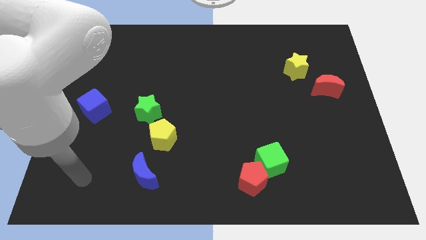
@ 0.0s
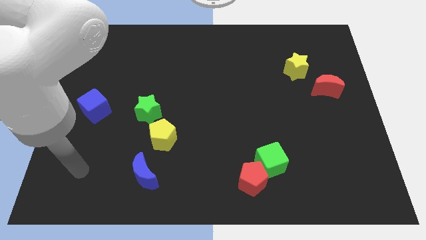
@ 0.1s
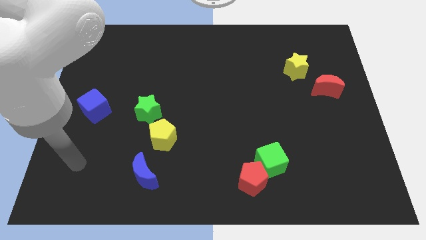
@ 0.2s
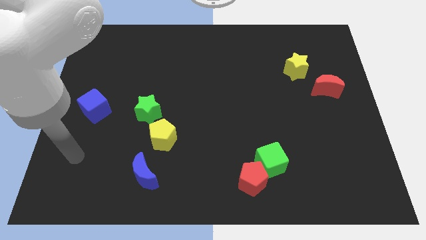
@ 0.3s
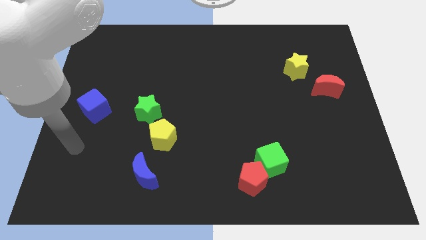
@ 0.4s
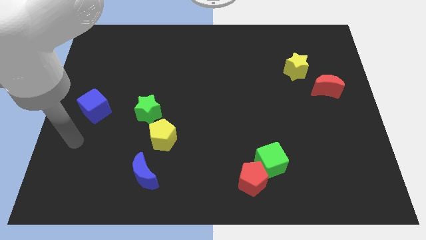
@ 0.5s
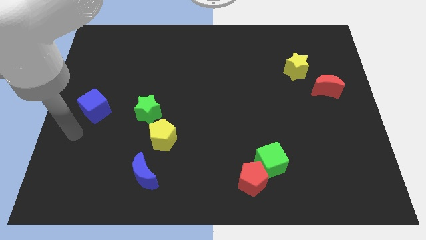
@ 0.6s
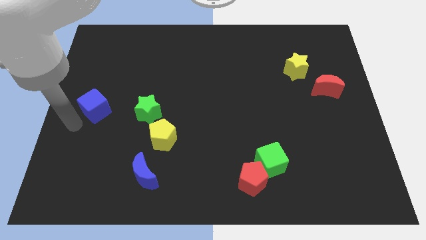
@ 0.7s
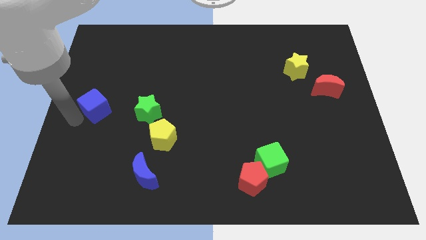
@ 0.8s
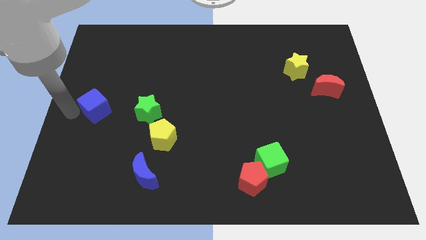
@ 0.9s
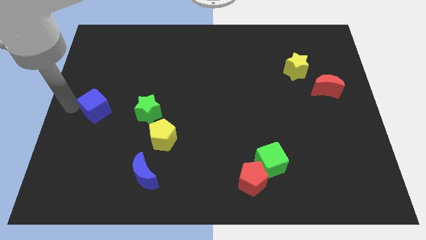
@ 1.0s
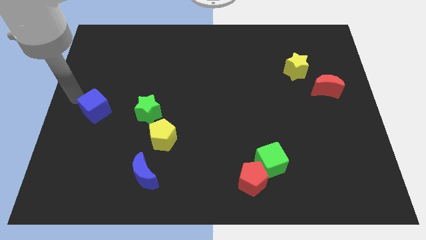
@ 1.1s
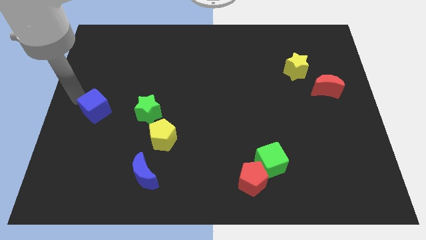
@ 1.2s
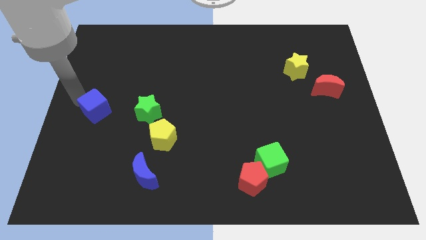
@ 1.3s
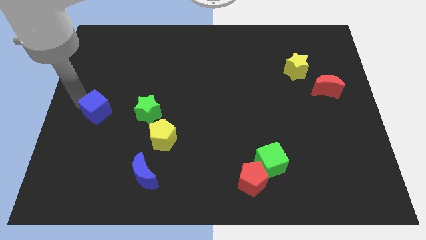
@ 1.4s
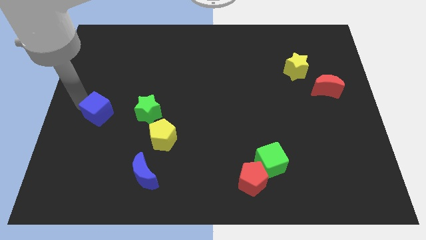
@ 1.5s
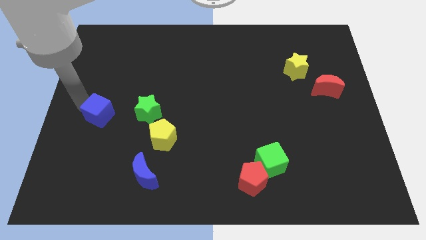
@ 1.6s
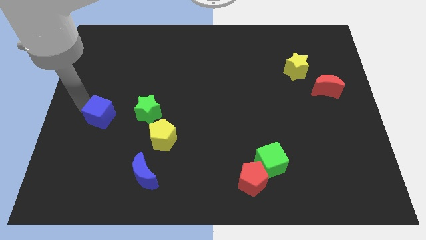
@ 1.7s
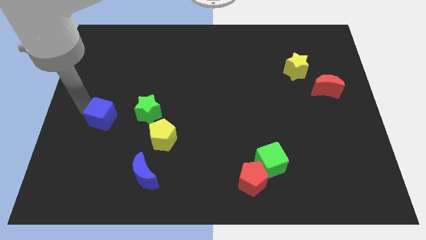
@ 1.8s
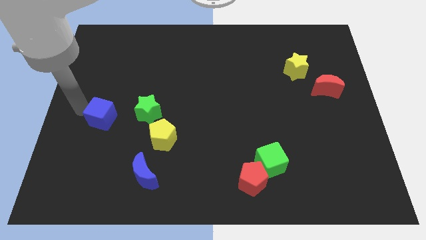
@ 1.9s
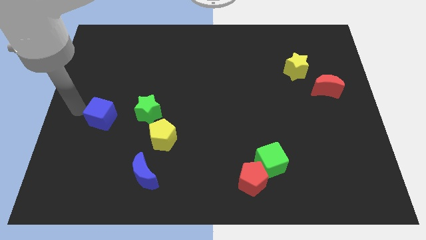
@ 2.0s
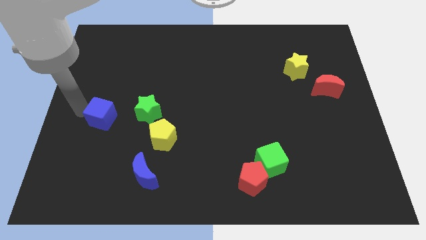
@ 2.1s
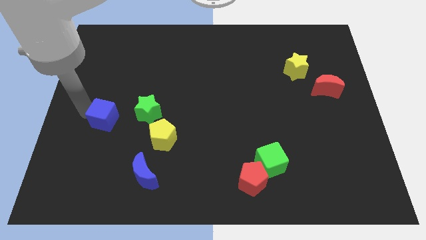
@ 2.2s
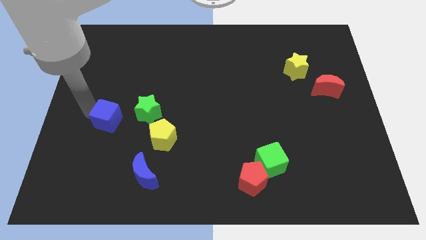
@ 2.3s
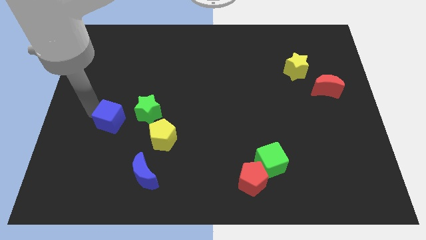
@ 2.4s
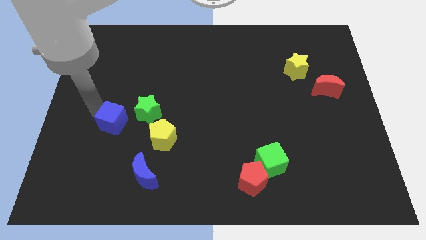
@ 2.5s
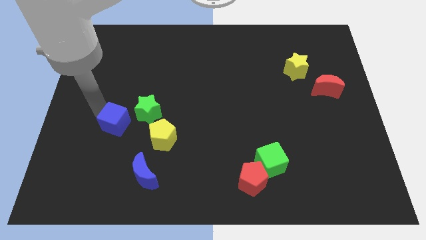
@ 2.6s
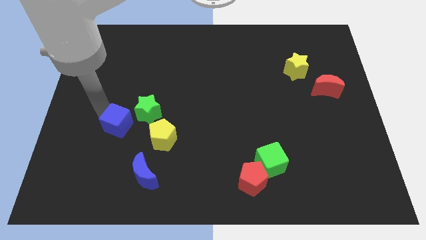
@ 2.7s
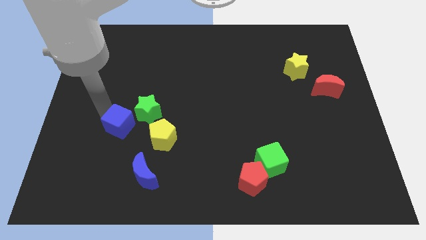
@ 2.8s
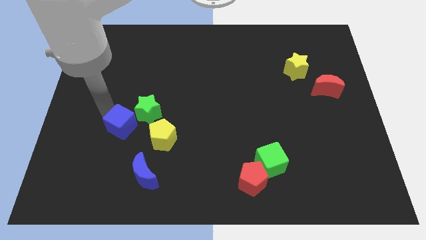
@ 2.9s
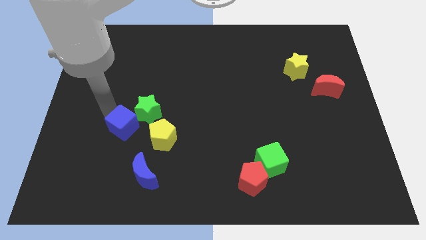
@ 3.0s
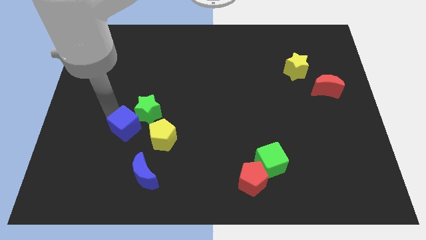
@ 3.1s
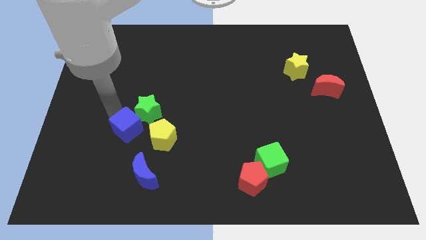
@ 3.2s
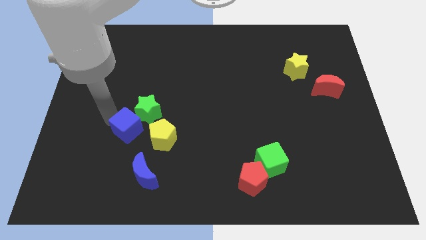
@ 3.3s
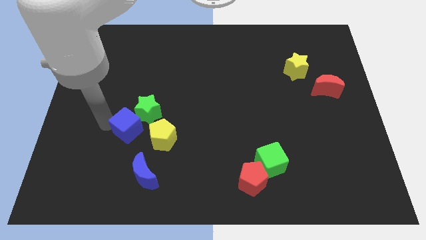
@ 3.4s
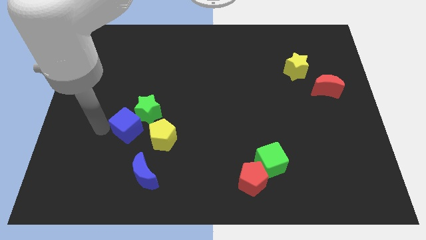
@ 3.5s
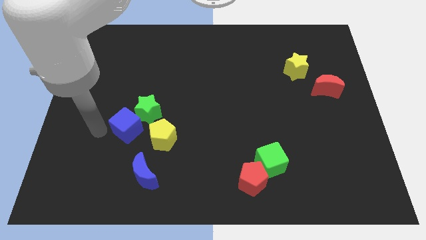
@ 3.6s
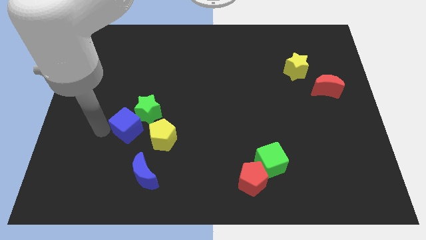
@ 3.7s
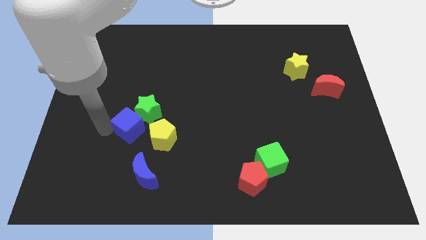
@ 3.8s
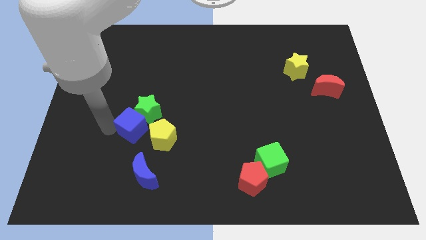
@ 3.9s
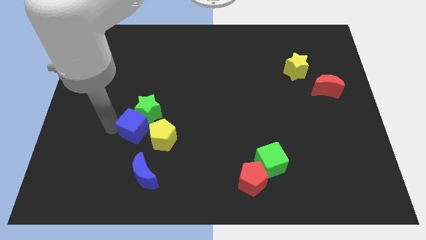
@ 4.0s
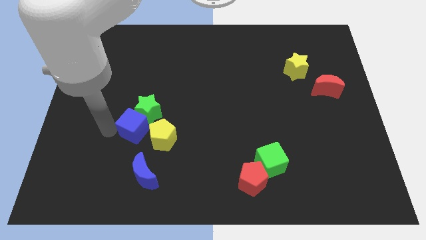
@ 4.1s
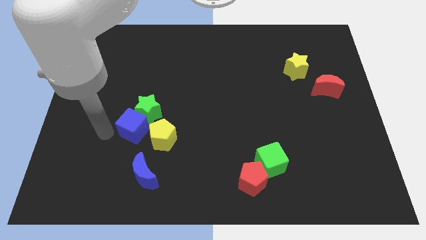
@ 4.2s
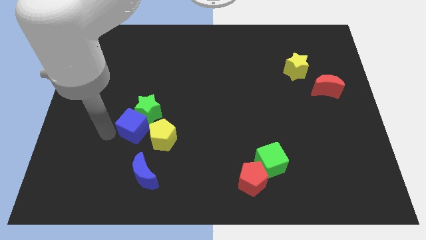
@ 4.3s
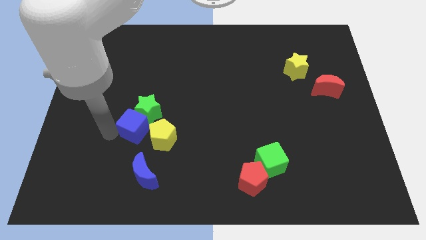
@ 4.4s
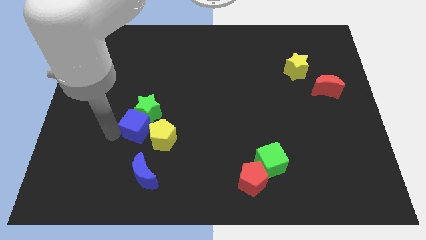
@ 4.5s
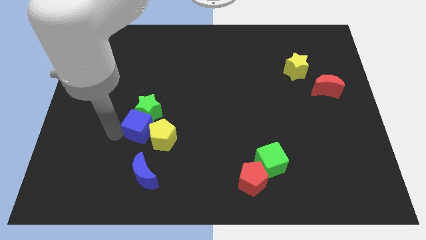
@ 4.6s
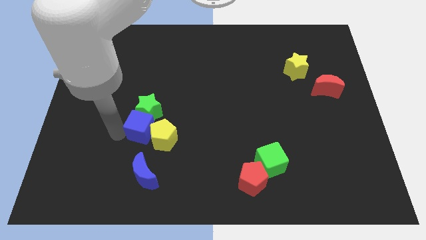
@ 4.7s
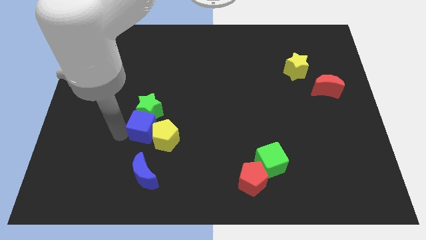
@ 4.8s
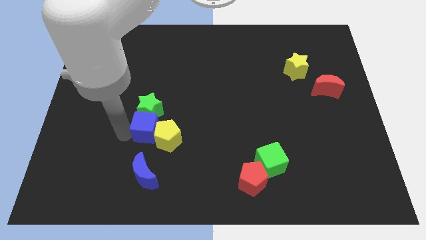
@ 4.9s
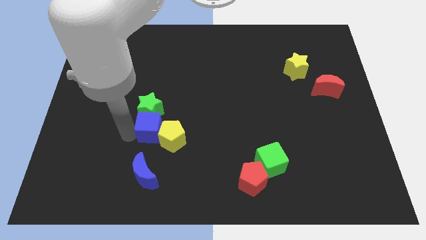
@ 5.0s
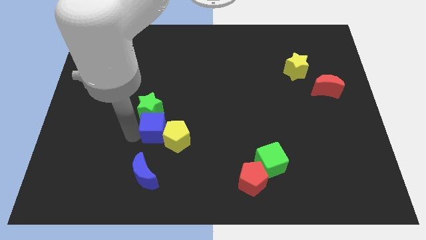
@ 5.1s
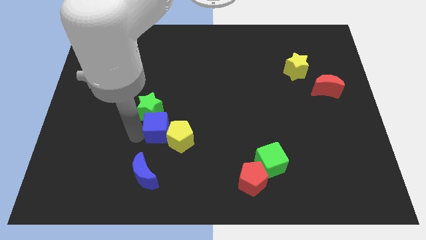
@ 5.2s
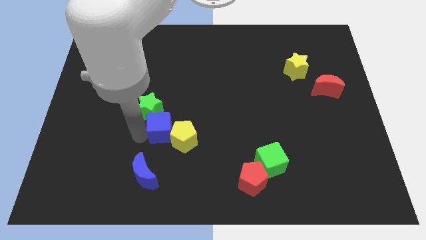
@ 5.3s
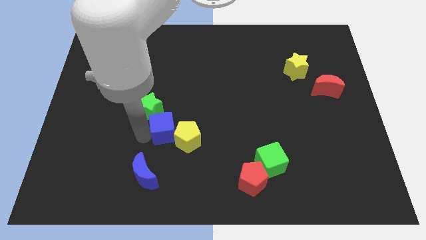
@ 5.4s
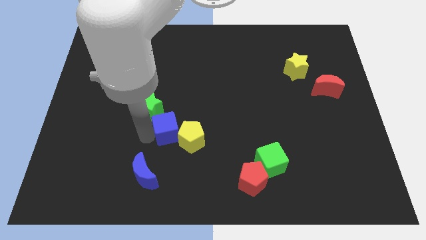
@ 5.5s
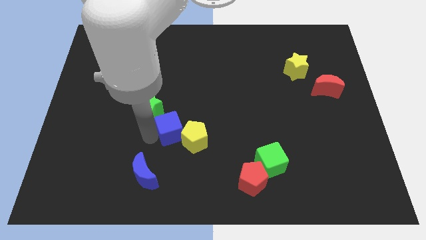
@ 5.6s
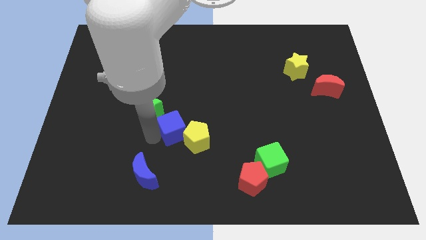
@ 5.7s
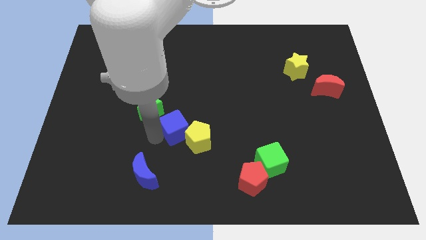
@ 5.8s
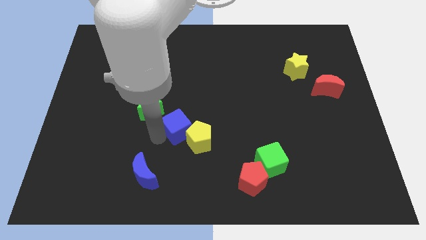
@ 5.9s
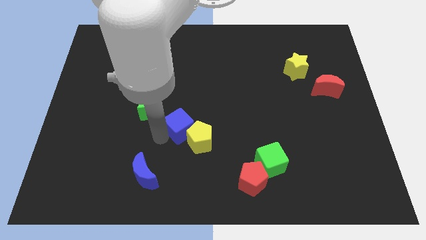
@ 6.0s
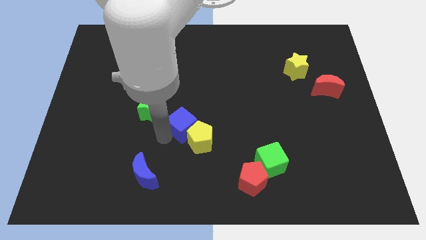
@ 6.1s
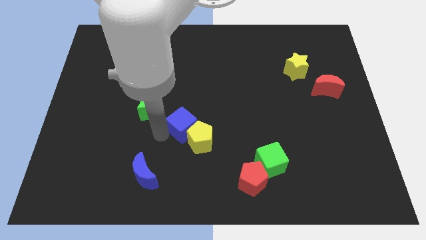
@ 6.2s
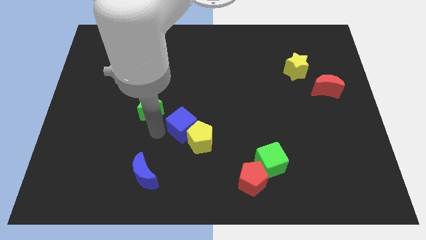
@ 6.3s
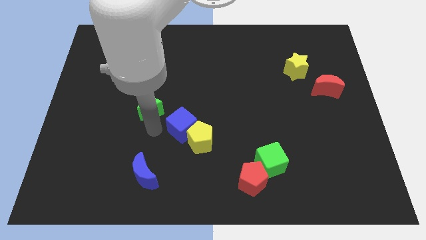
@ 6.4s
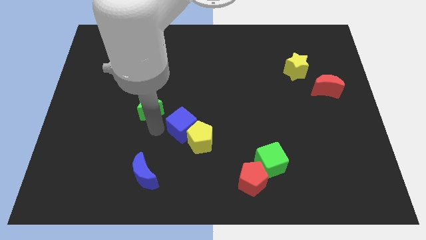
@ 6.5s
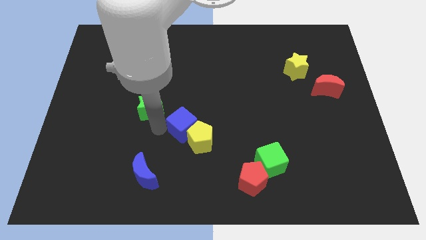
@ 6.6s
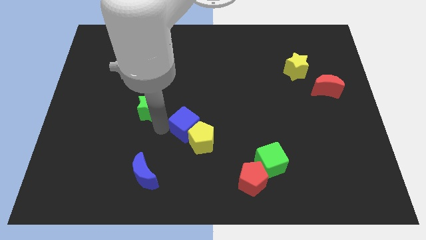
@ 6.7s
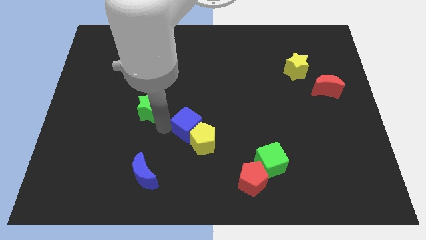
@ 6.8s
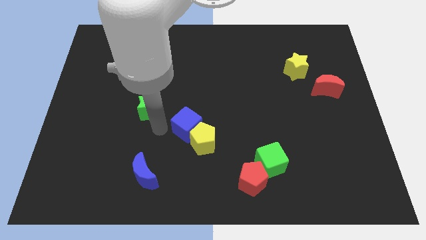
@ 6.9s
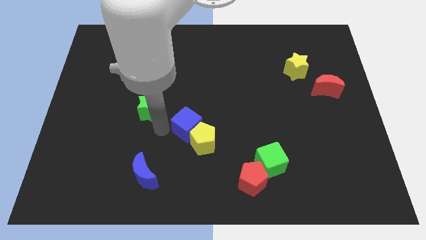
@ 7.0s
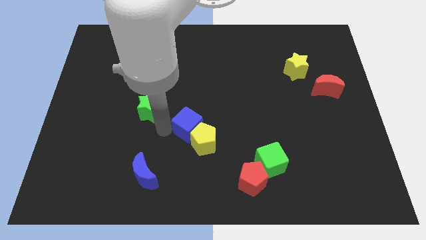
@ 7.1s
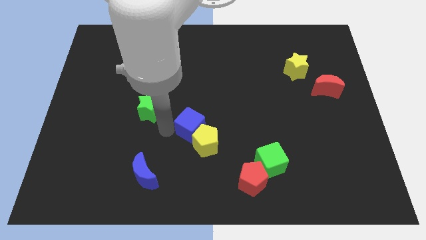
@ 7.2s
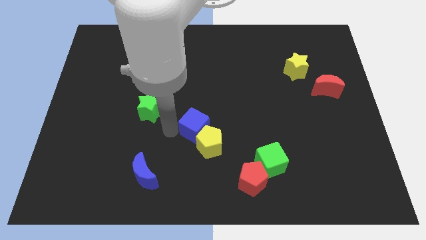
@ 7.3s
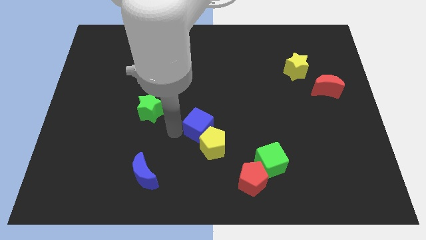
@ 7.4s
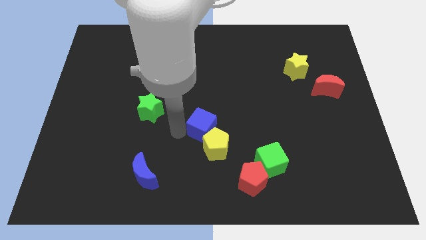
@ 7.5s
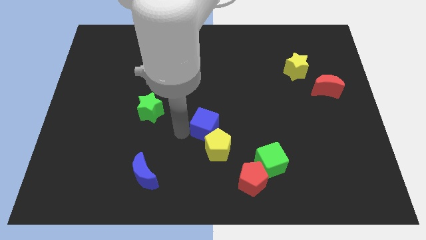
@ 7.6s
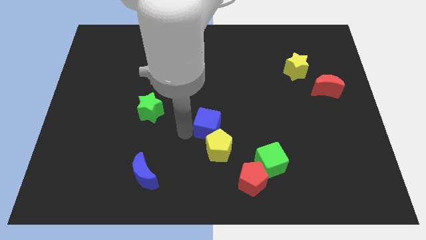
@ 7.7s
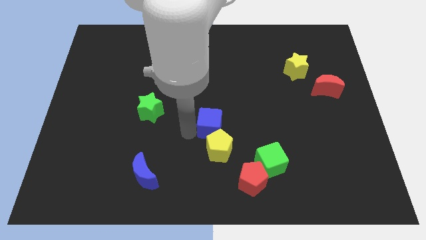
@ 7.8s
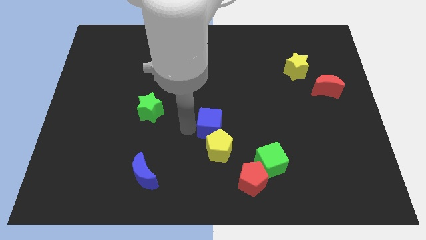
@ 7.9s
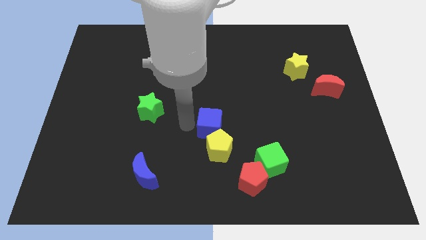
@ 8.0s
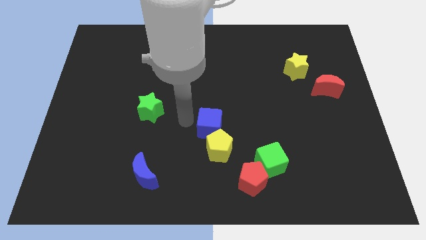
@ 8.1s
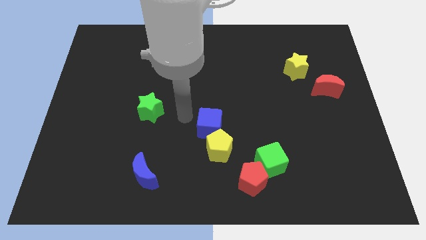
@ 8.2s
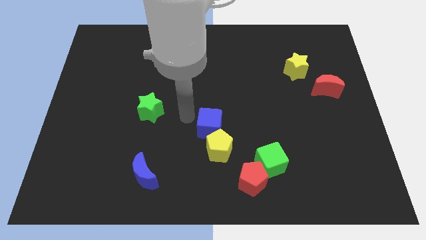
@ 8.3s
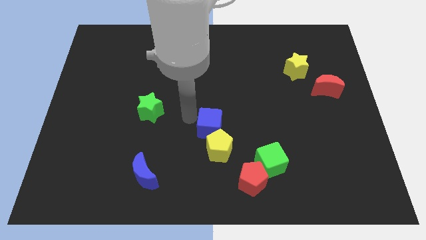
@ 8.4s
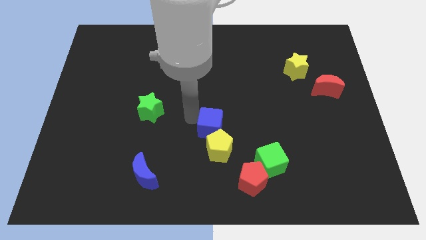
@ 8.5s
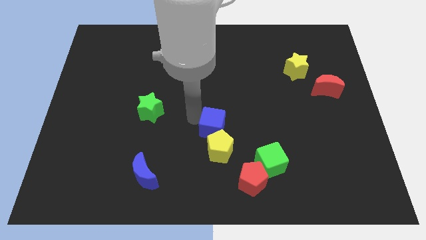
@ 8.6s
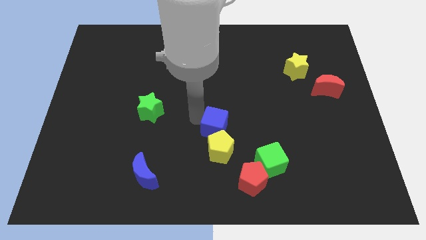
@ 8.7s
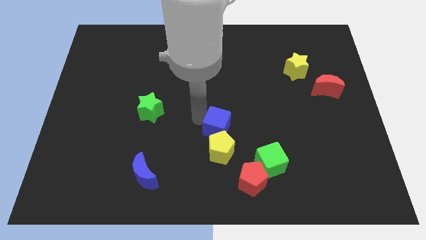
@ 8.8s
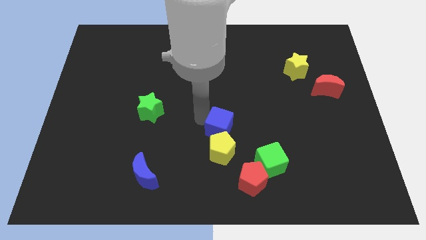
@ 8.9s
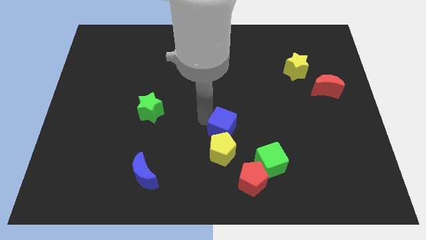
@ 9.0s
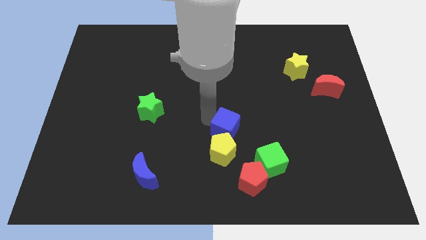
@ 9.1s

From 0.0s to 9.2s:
put the blue cube diagonally up and to the left of the green cube
